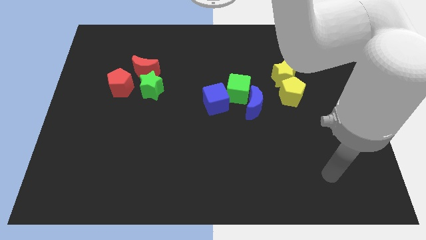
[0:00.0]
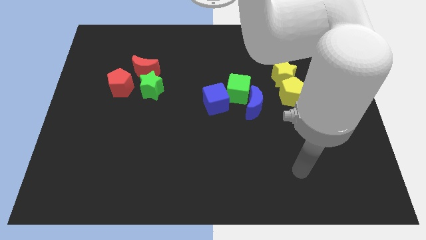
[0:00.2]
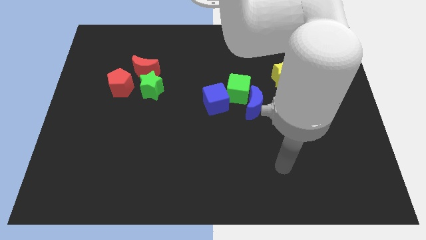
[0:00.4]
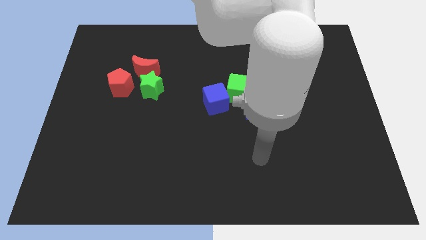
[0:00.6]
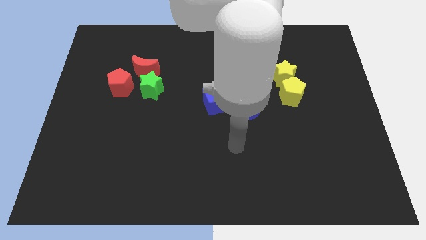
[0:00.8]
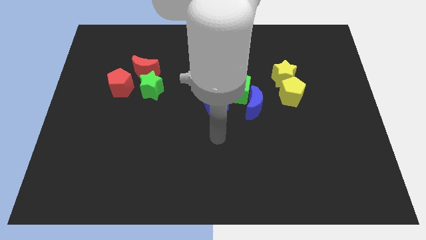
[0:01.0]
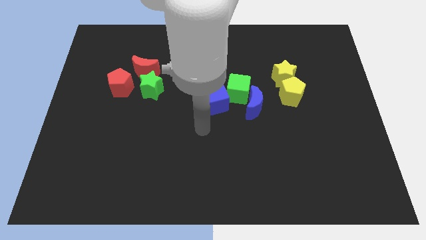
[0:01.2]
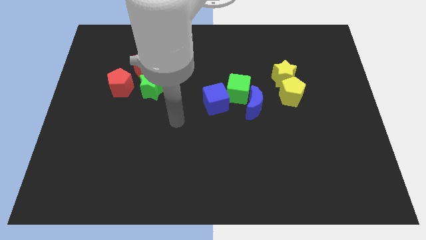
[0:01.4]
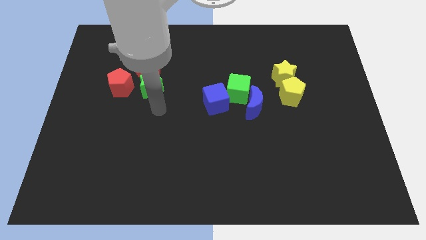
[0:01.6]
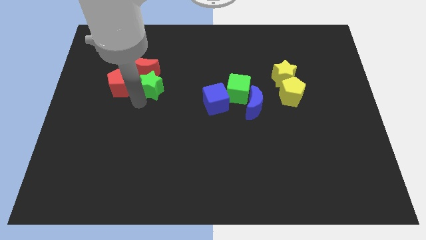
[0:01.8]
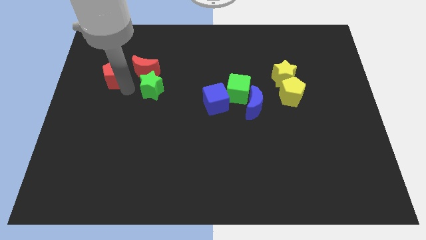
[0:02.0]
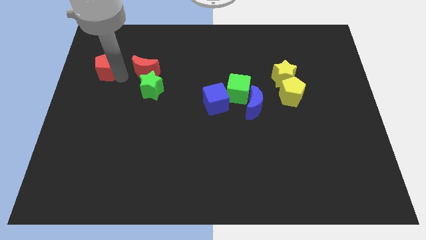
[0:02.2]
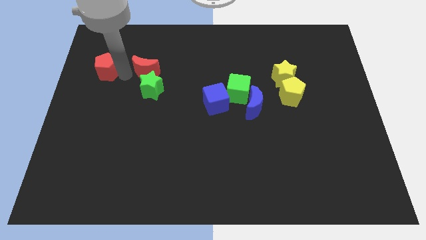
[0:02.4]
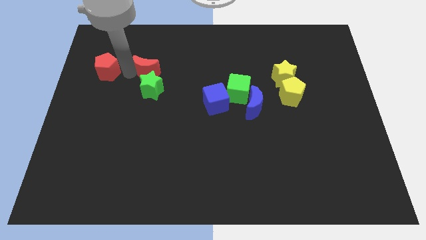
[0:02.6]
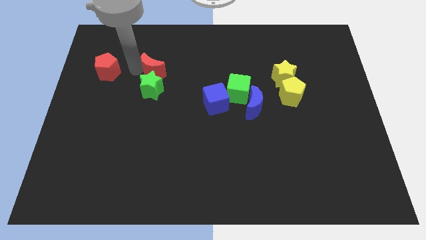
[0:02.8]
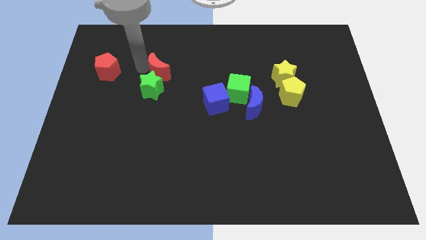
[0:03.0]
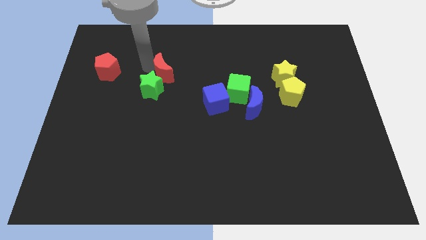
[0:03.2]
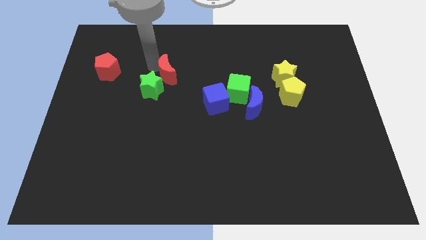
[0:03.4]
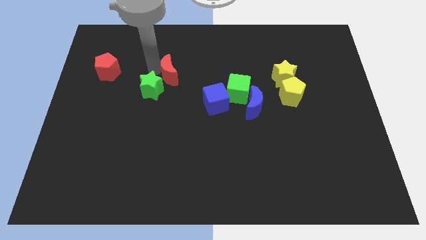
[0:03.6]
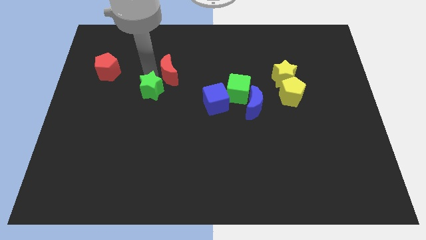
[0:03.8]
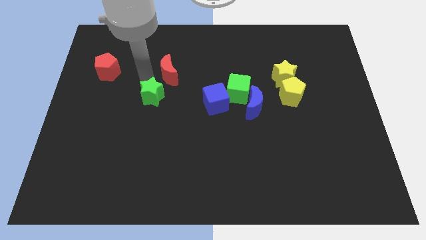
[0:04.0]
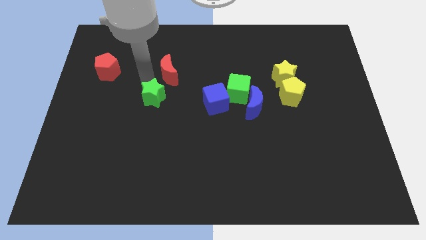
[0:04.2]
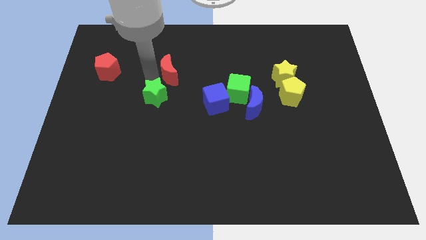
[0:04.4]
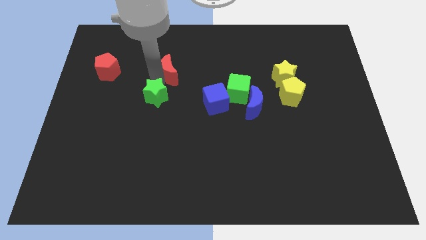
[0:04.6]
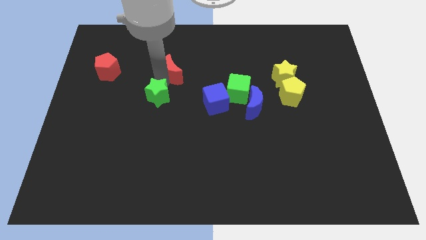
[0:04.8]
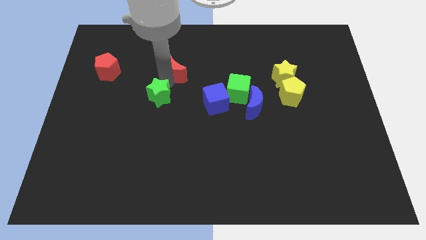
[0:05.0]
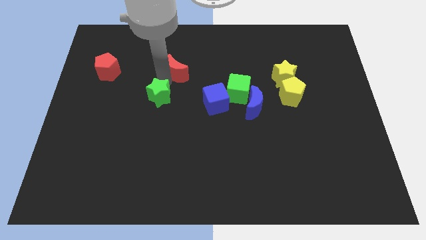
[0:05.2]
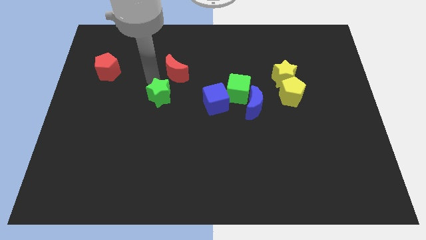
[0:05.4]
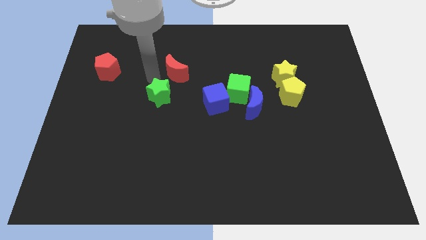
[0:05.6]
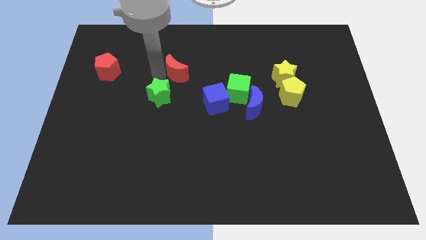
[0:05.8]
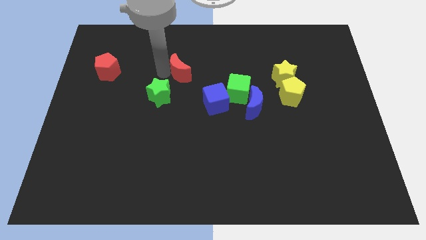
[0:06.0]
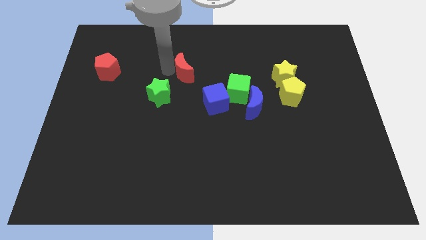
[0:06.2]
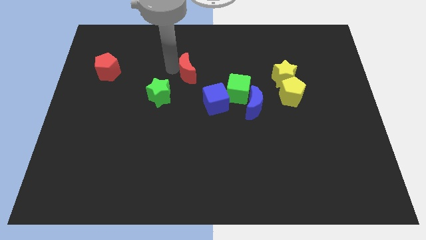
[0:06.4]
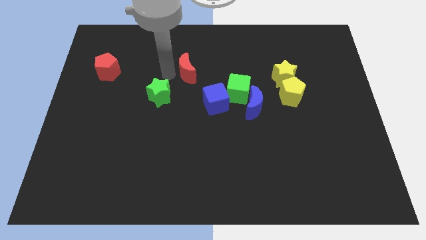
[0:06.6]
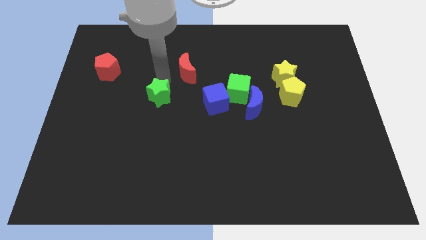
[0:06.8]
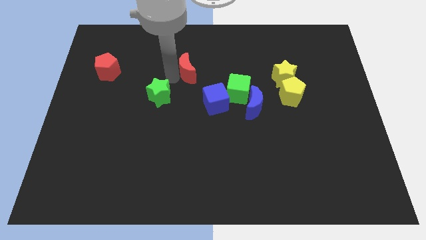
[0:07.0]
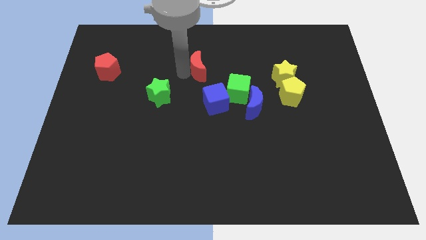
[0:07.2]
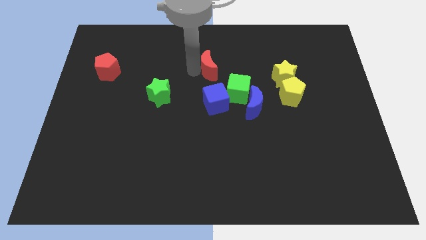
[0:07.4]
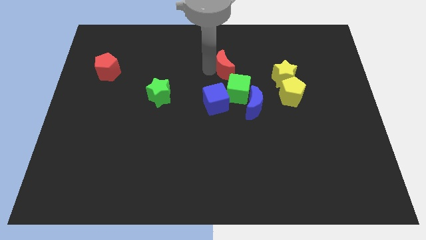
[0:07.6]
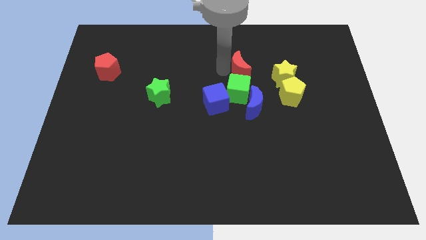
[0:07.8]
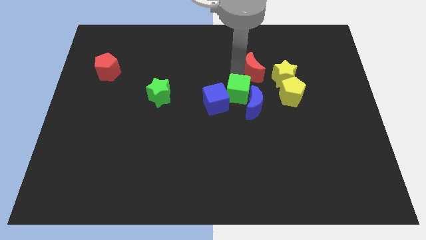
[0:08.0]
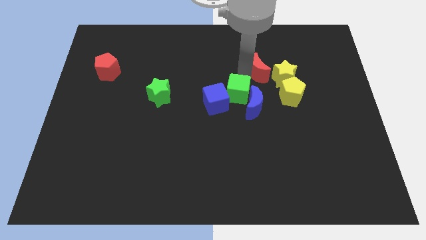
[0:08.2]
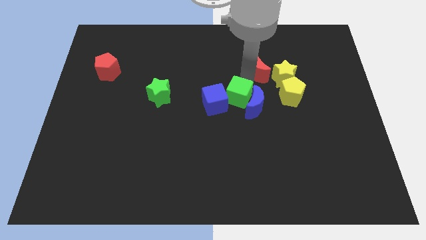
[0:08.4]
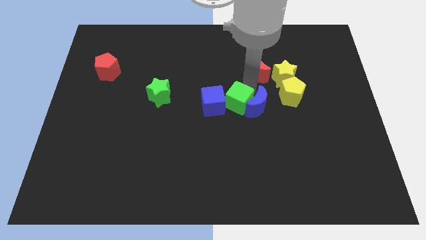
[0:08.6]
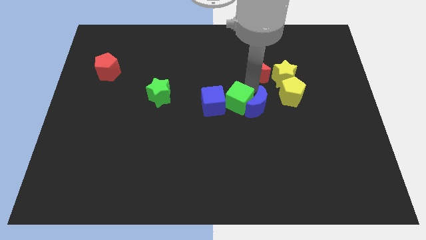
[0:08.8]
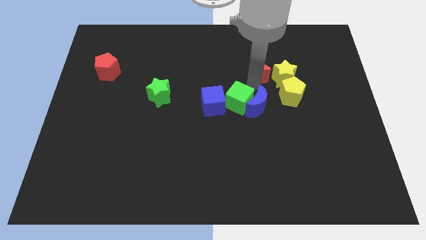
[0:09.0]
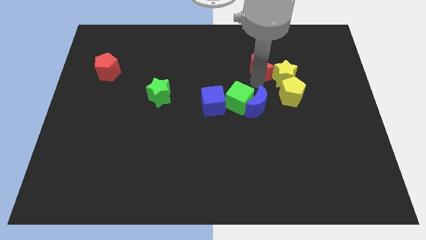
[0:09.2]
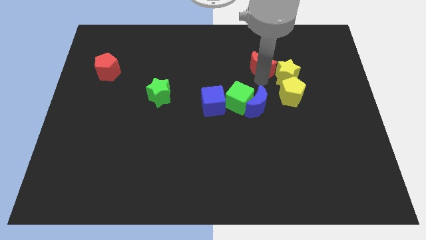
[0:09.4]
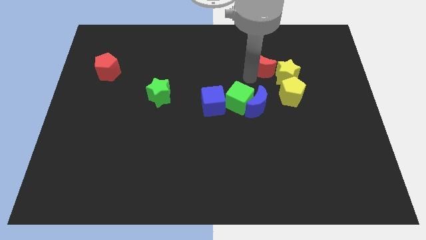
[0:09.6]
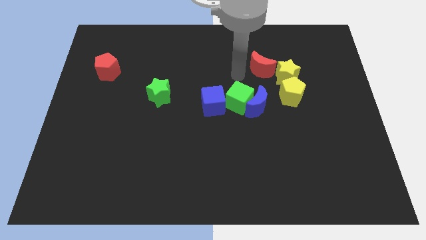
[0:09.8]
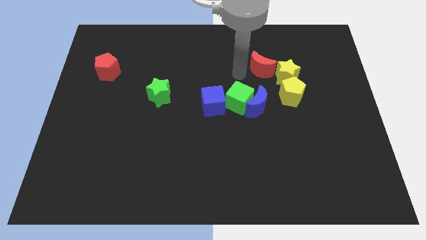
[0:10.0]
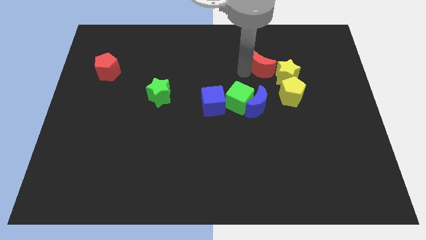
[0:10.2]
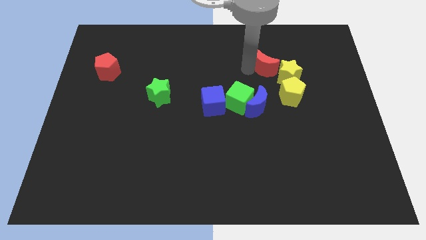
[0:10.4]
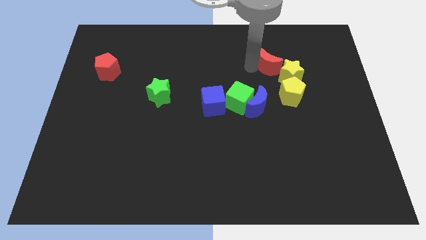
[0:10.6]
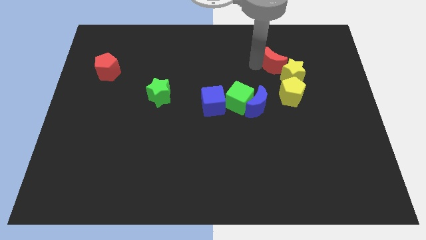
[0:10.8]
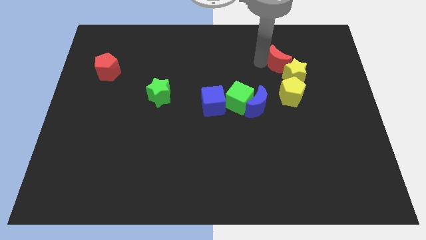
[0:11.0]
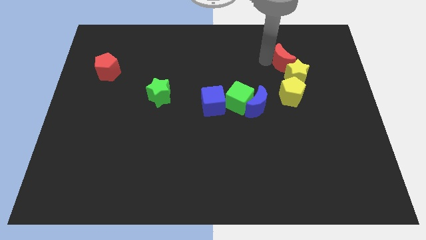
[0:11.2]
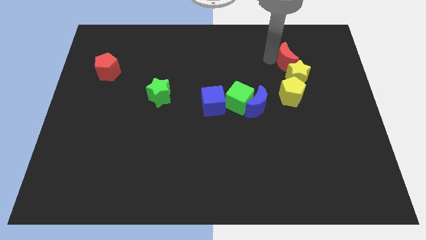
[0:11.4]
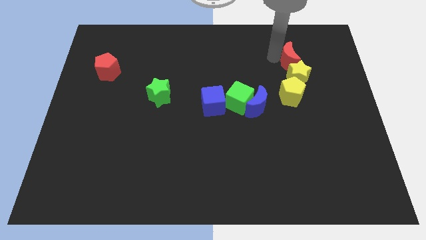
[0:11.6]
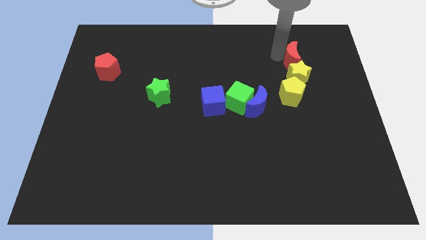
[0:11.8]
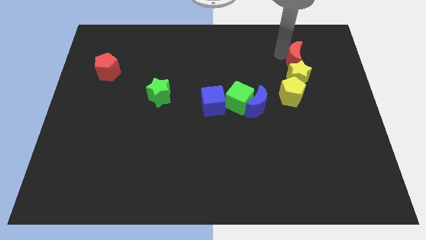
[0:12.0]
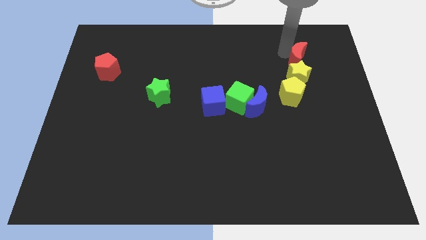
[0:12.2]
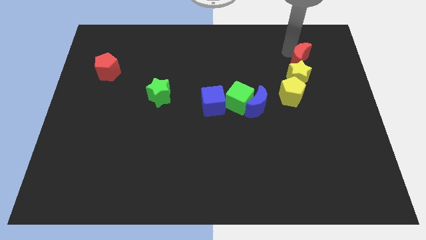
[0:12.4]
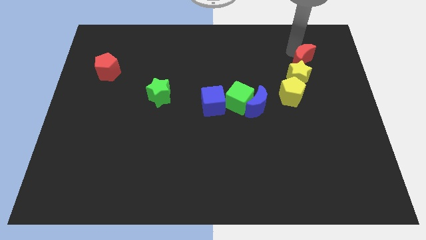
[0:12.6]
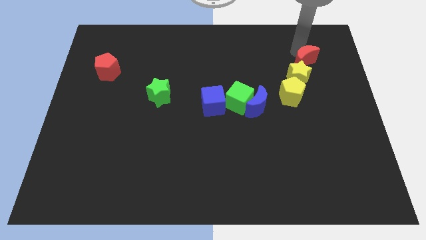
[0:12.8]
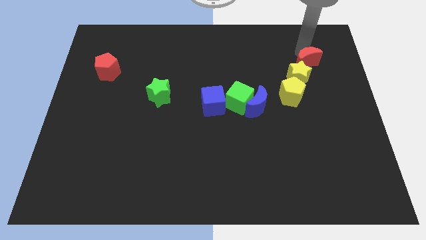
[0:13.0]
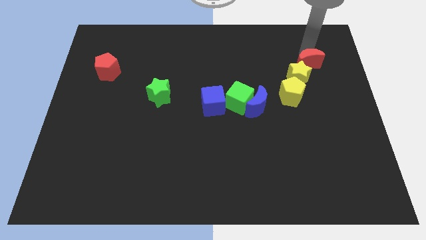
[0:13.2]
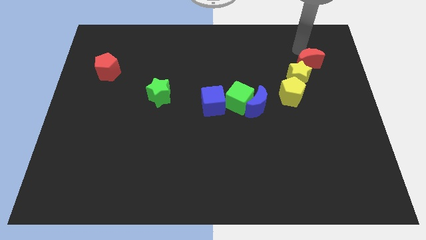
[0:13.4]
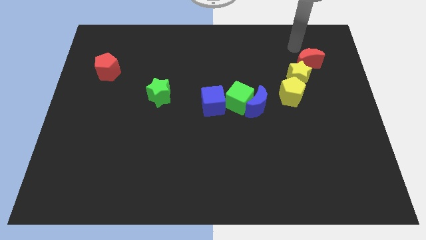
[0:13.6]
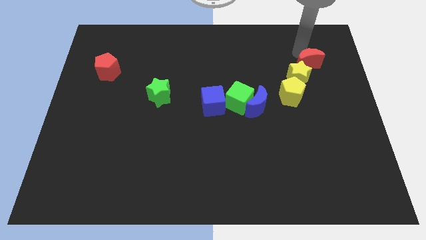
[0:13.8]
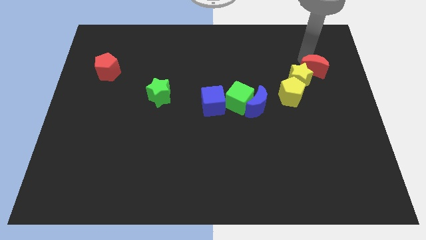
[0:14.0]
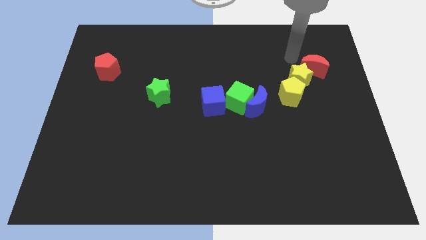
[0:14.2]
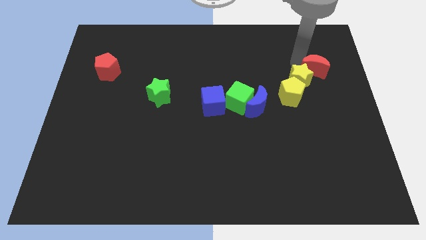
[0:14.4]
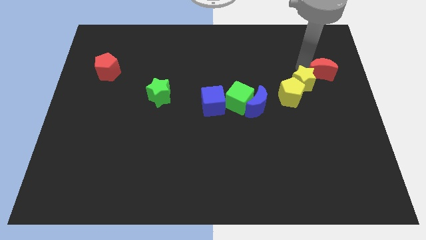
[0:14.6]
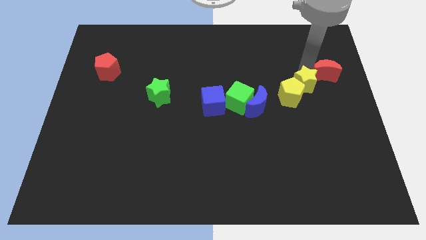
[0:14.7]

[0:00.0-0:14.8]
put the red moon to the center right
